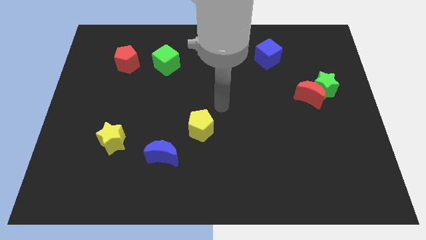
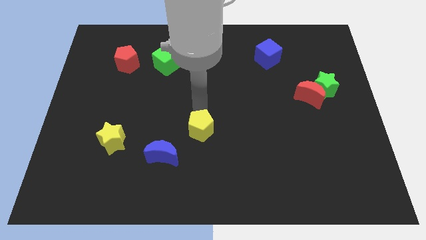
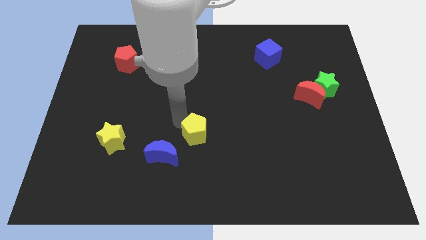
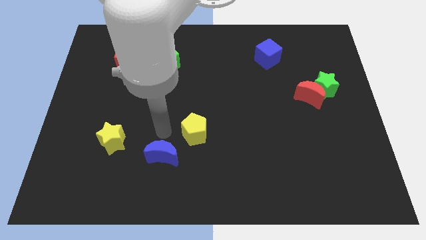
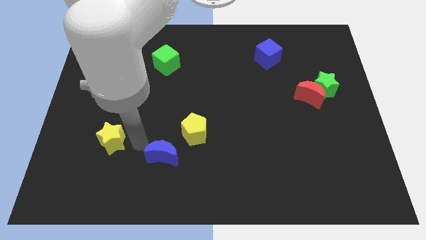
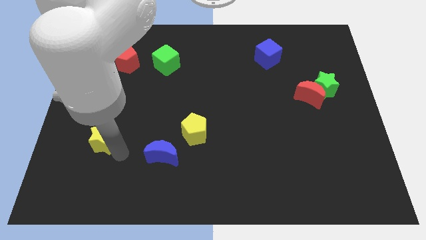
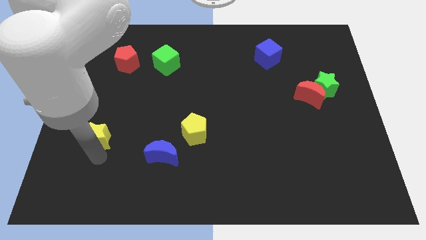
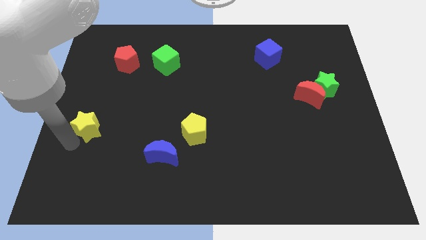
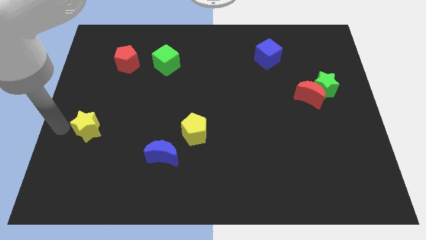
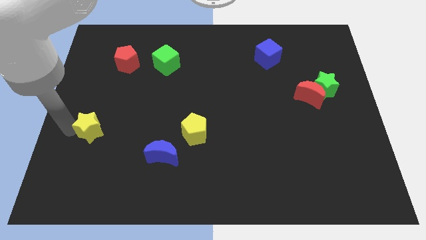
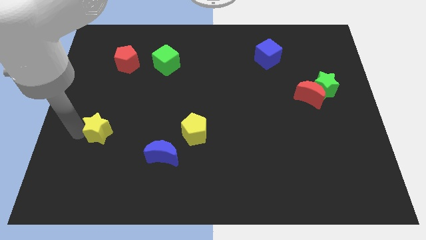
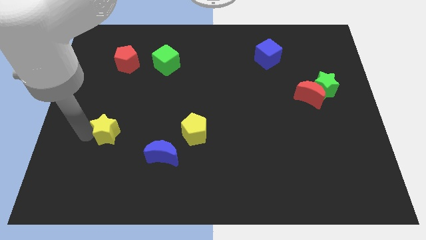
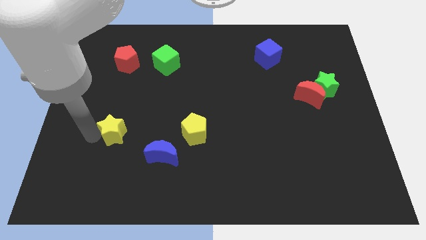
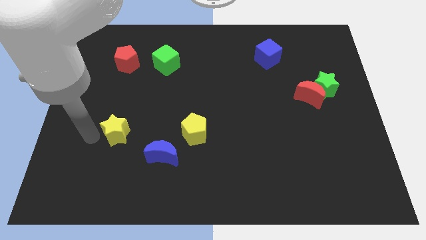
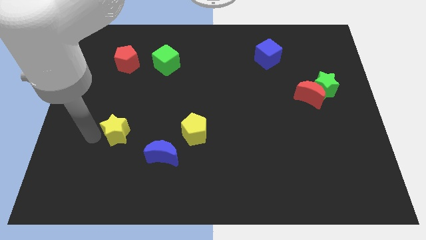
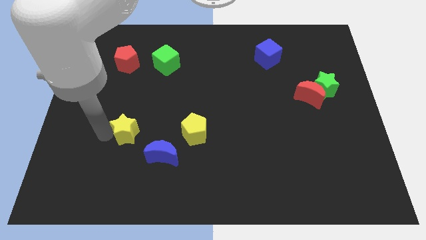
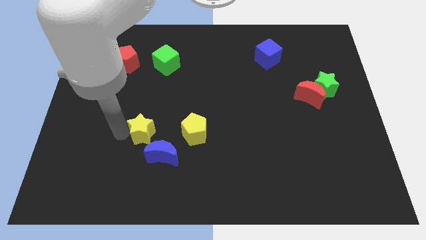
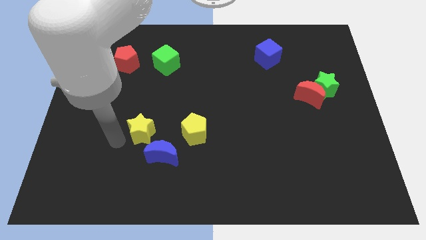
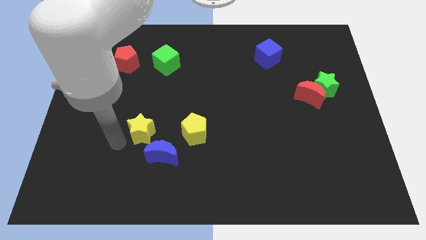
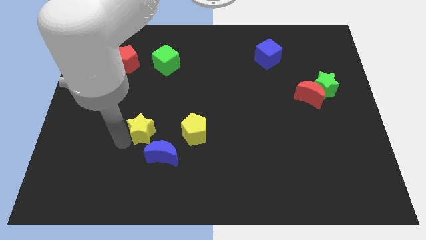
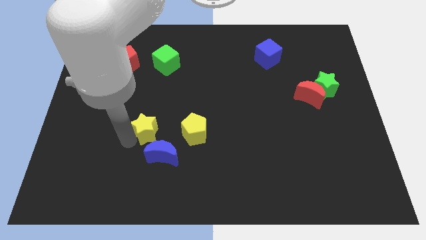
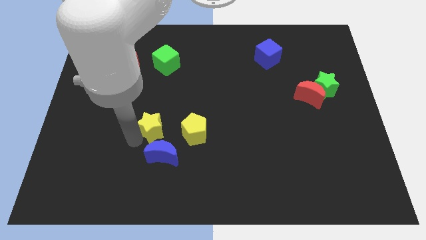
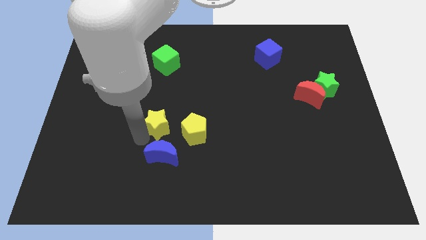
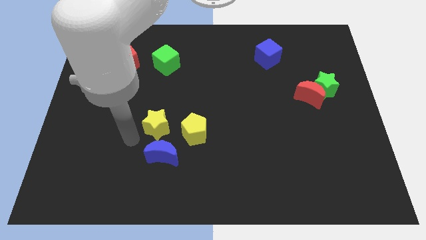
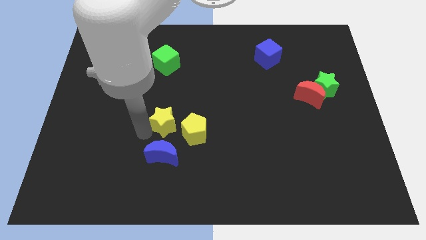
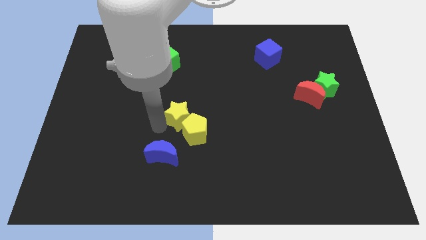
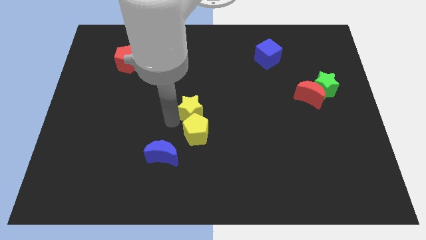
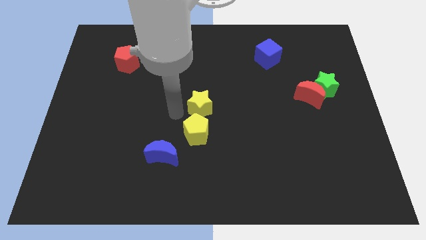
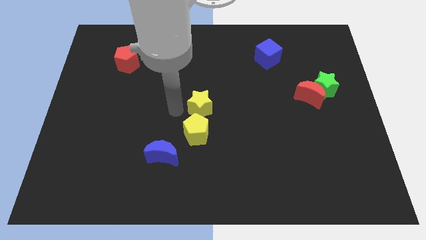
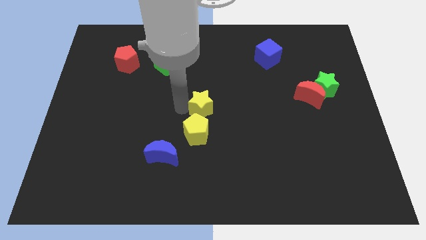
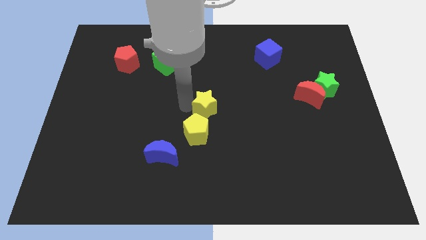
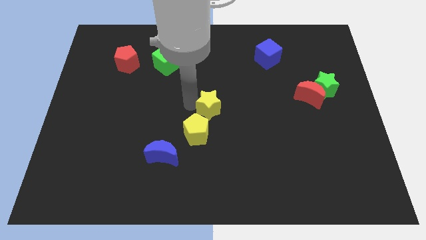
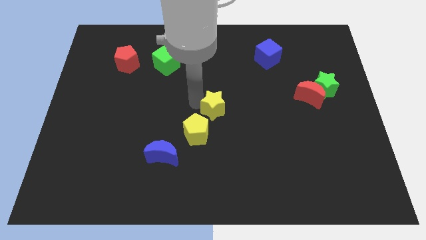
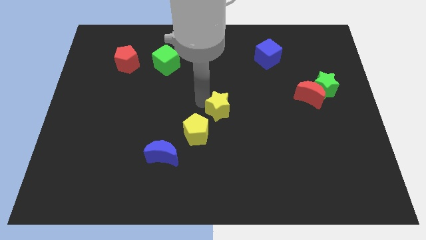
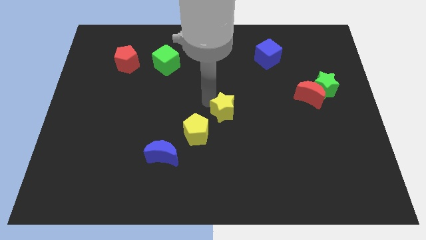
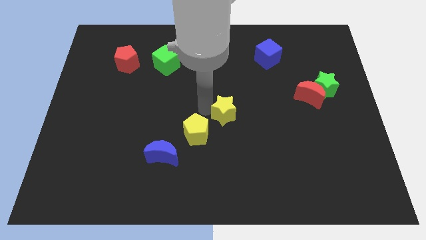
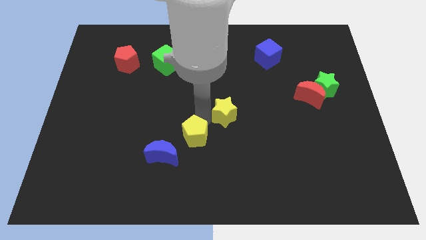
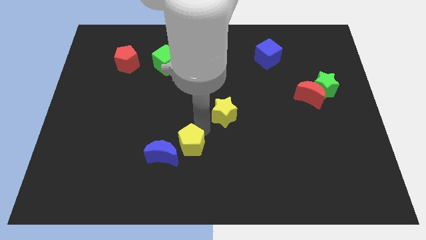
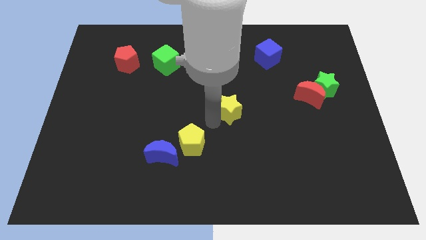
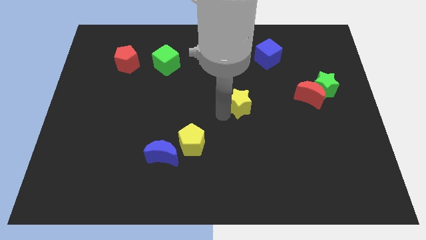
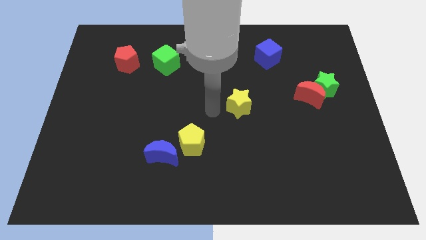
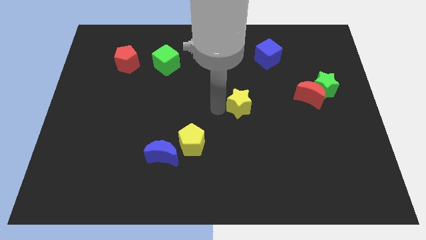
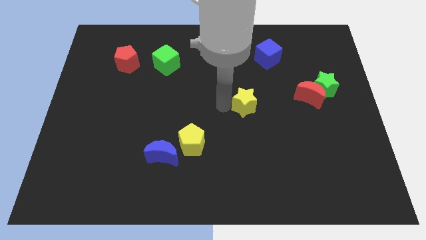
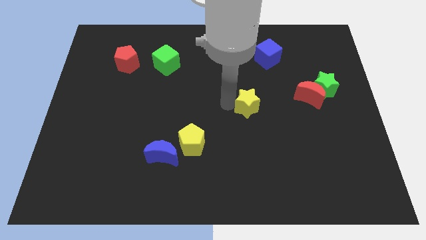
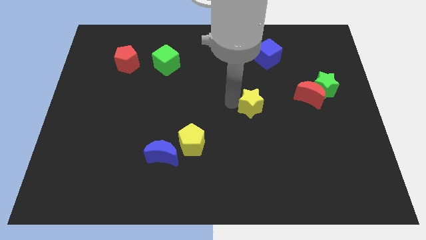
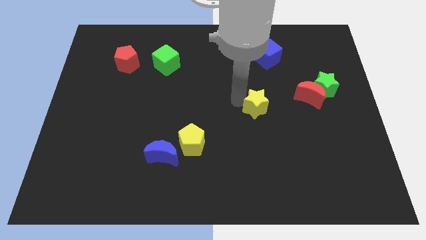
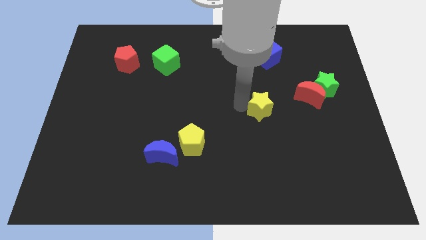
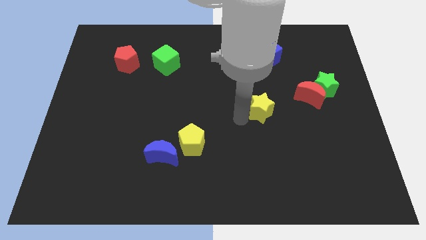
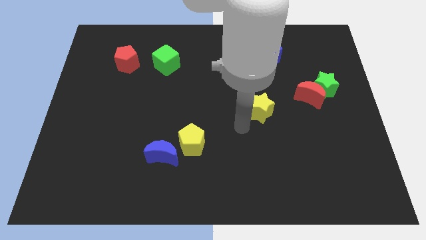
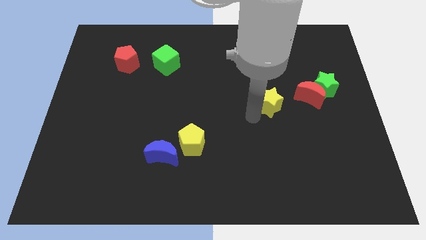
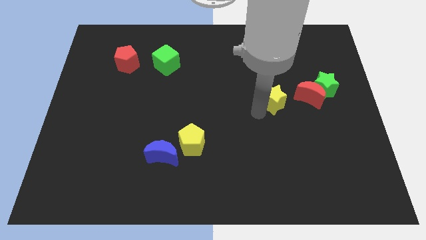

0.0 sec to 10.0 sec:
push the yellow star to the left of the green star

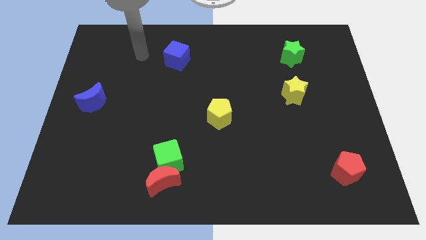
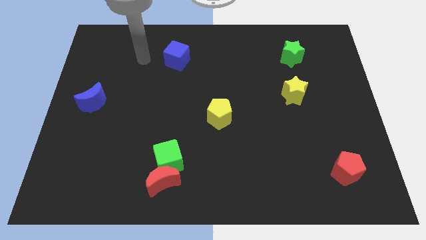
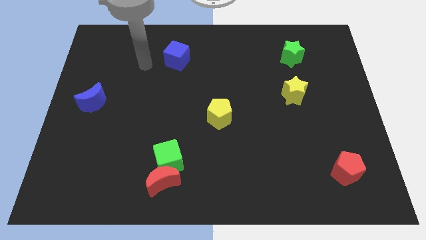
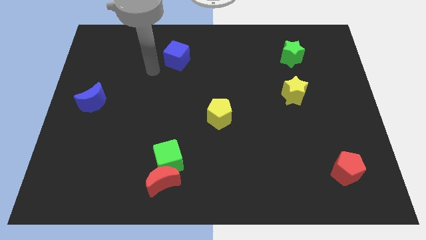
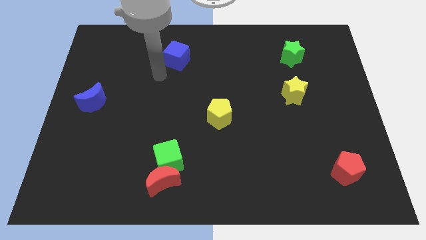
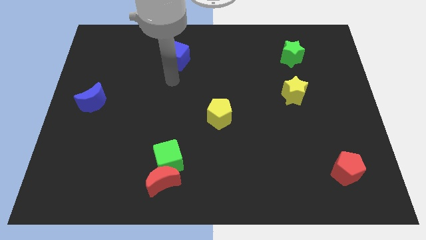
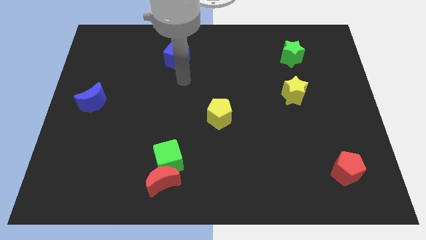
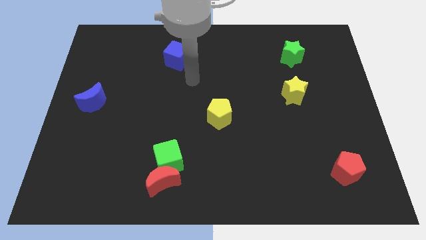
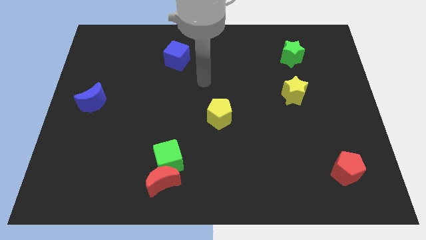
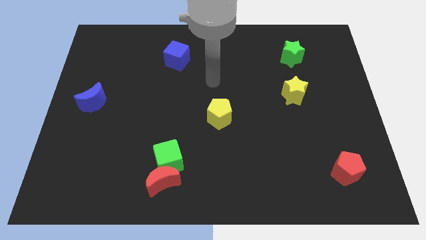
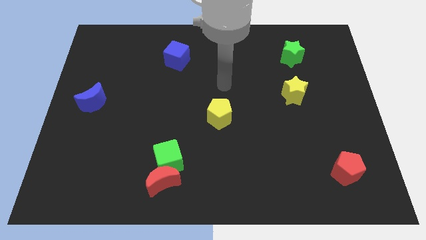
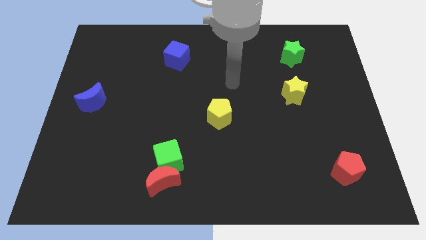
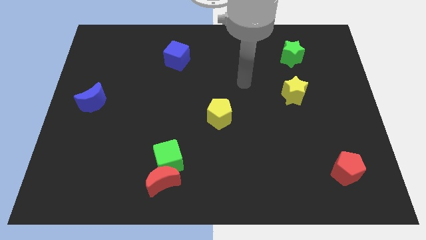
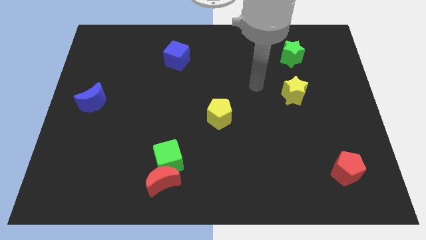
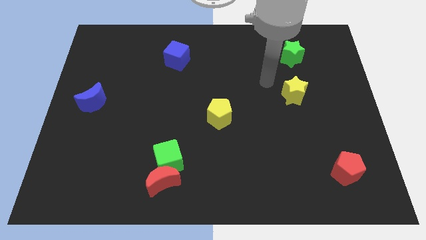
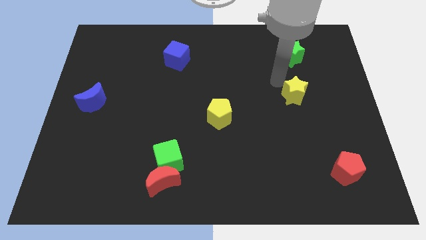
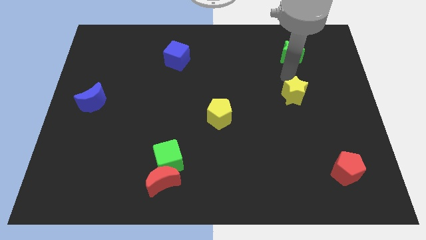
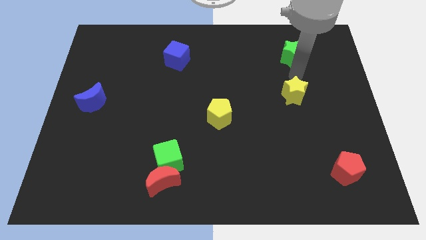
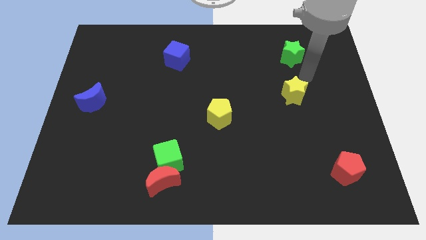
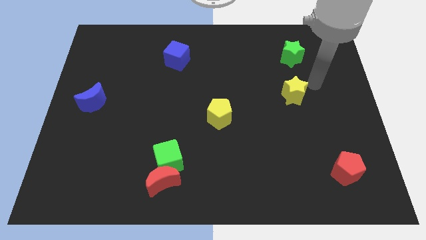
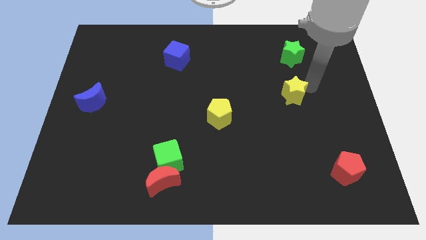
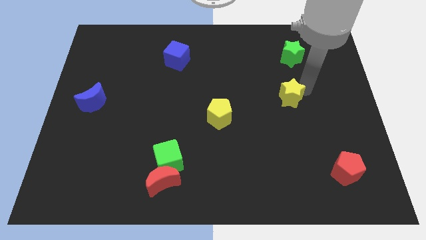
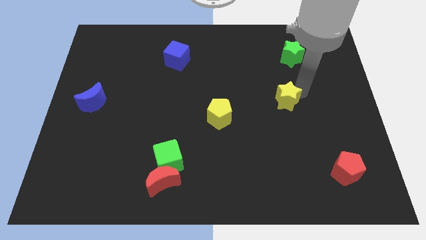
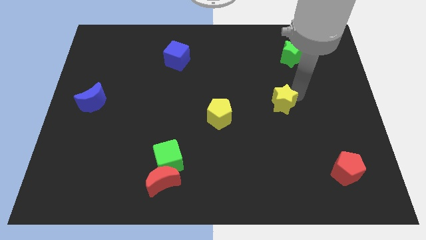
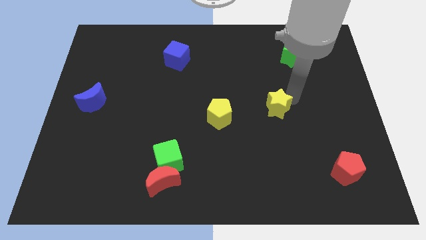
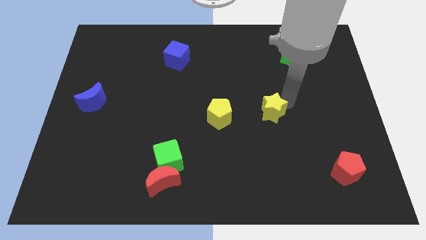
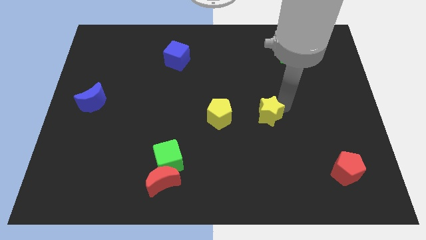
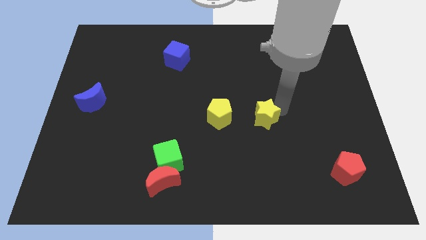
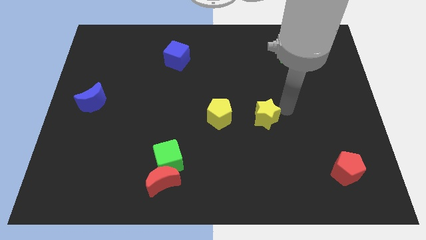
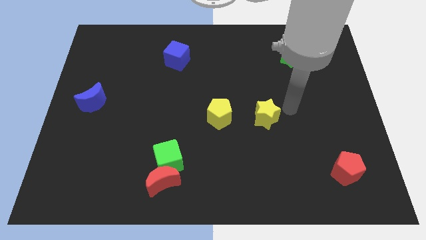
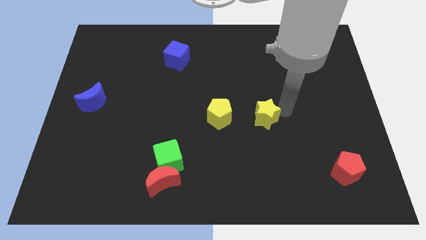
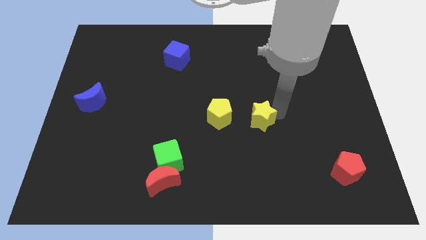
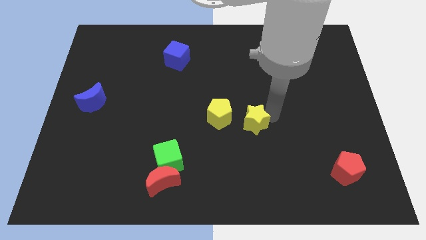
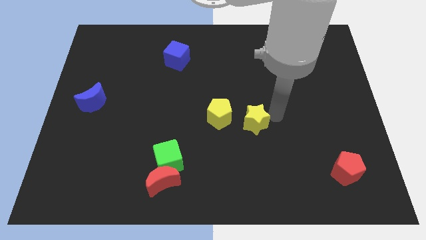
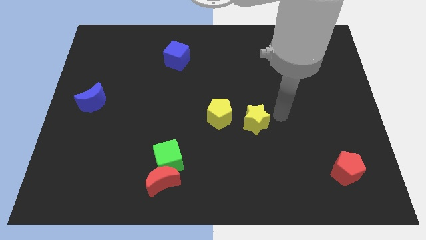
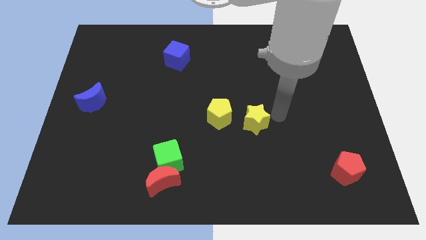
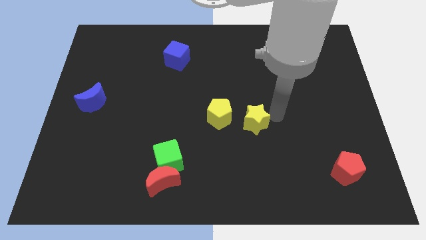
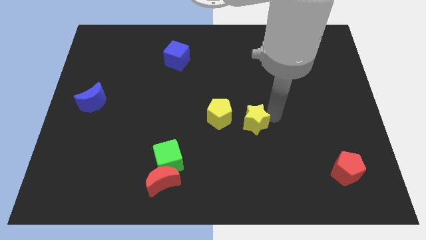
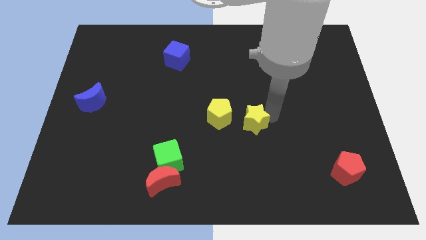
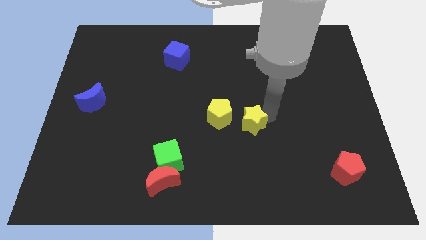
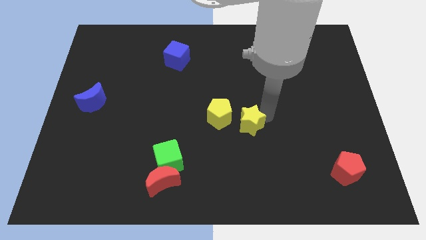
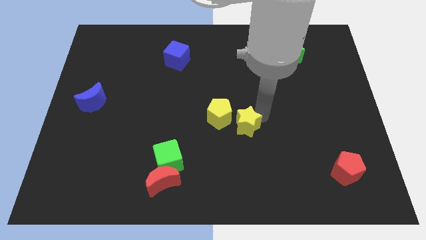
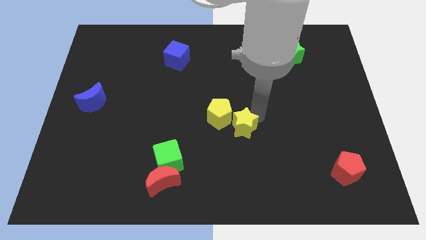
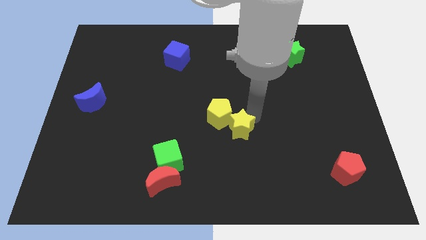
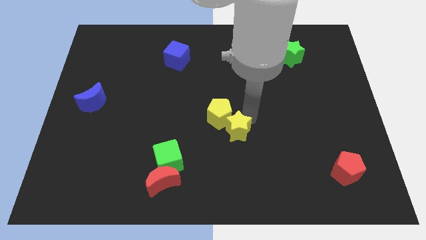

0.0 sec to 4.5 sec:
slide the yellow star below the yellow pentagon
